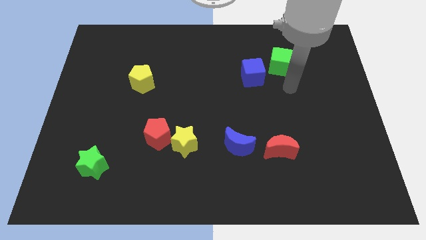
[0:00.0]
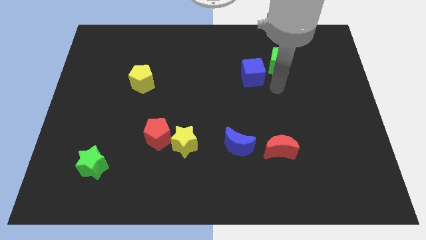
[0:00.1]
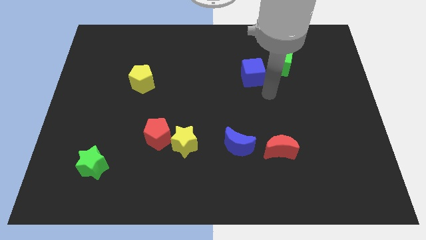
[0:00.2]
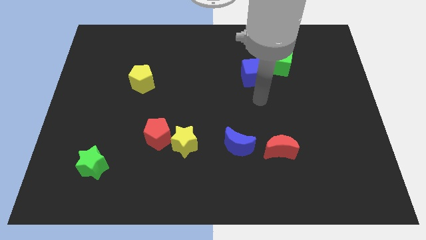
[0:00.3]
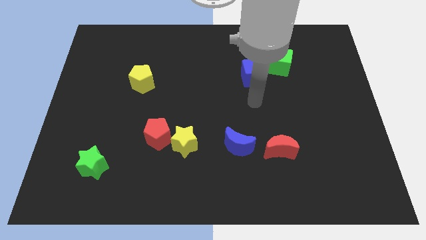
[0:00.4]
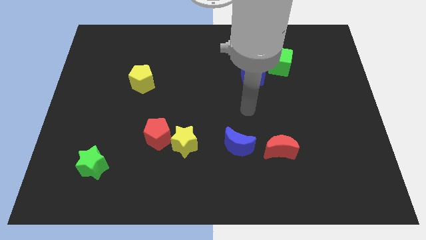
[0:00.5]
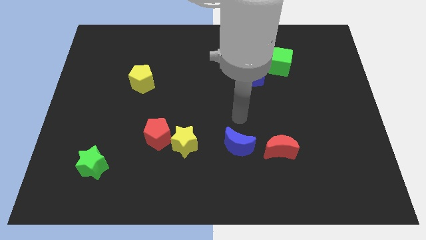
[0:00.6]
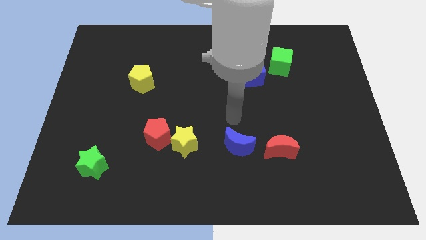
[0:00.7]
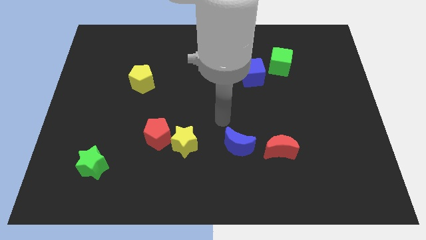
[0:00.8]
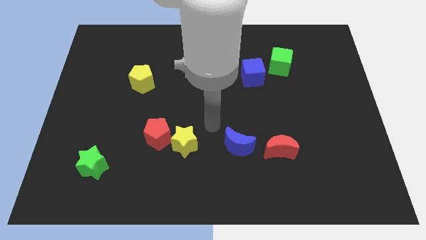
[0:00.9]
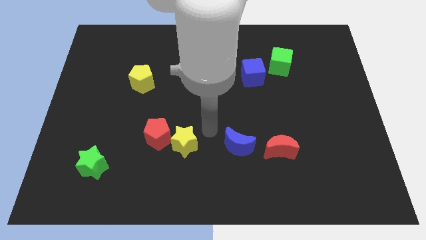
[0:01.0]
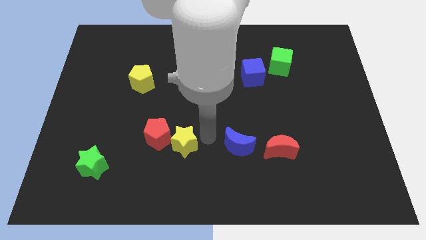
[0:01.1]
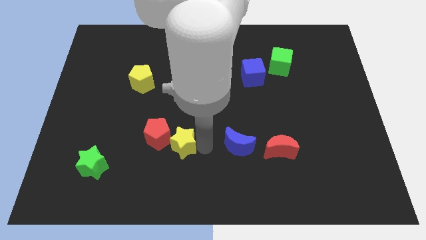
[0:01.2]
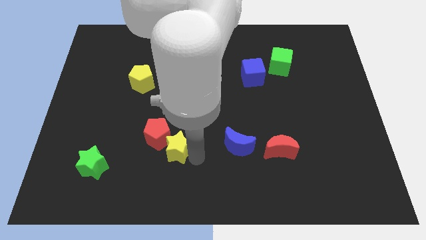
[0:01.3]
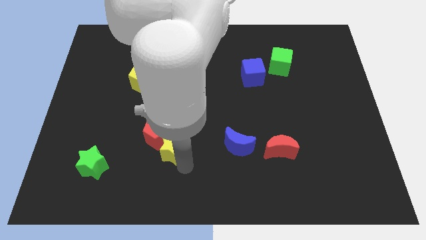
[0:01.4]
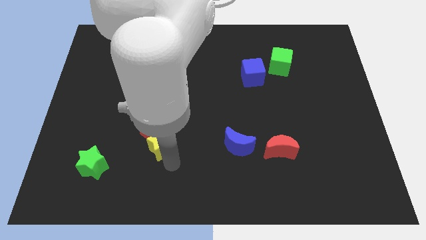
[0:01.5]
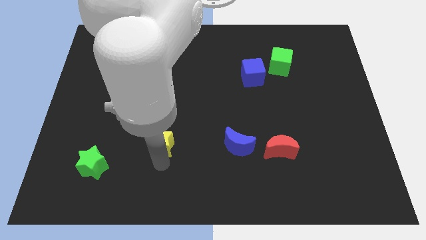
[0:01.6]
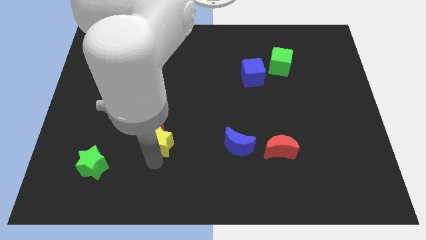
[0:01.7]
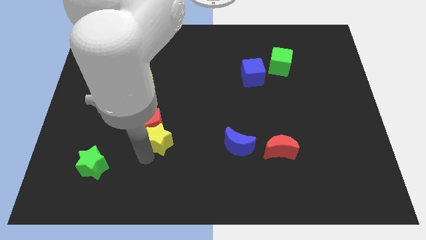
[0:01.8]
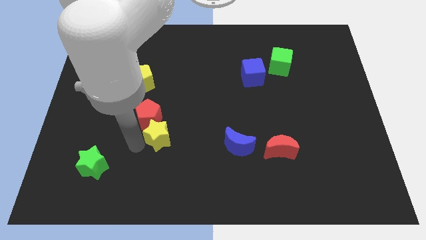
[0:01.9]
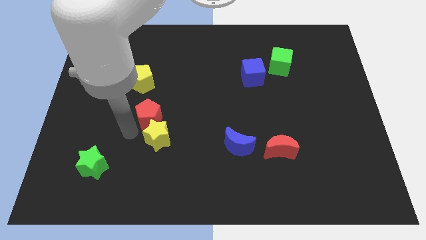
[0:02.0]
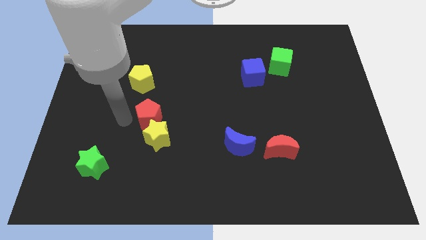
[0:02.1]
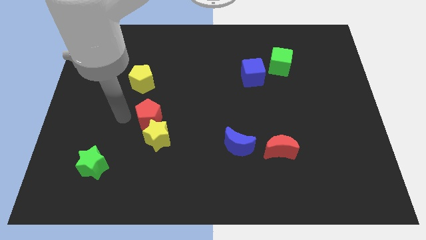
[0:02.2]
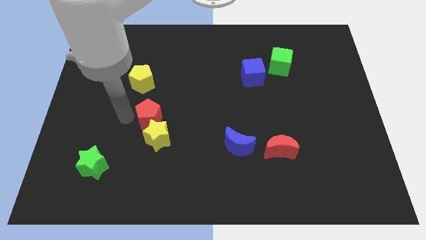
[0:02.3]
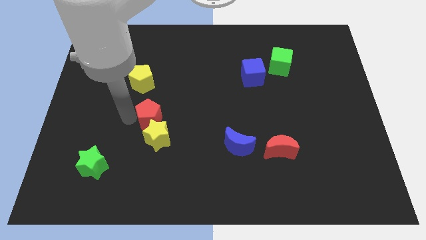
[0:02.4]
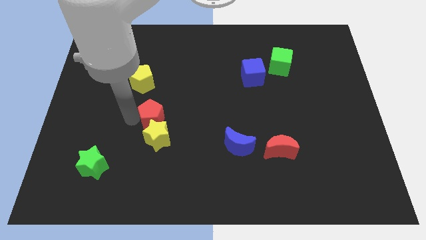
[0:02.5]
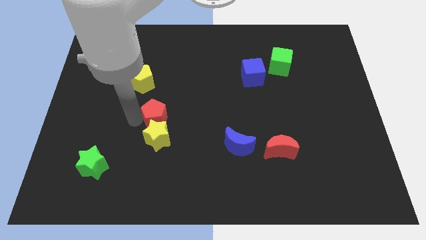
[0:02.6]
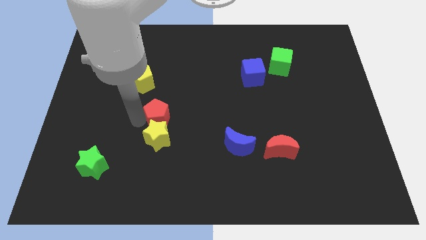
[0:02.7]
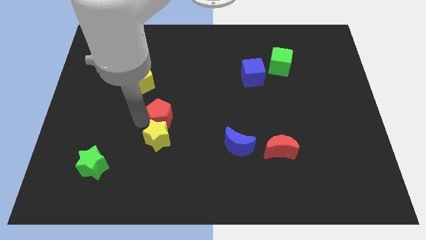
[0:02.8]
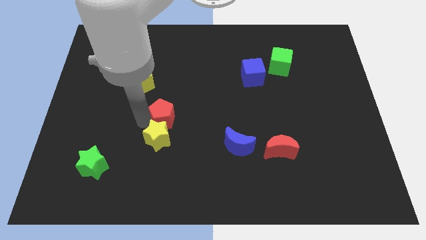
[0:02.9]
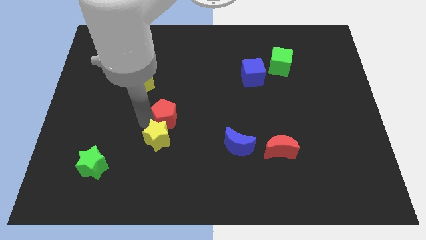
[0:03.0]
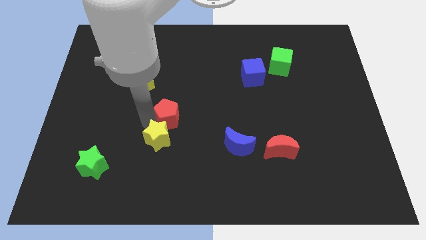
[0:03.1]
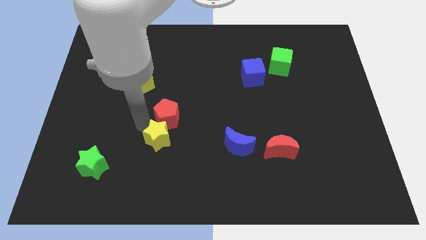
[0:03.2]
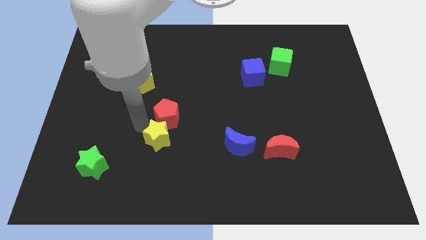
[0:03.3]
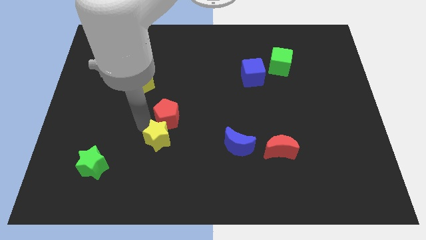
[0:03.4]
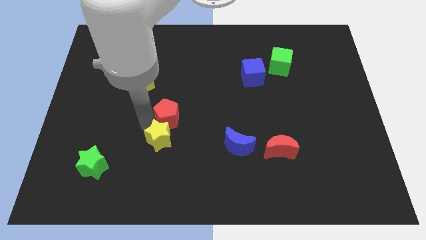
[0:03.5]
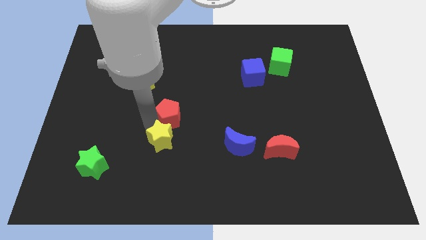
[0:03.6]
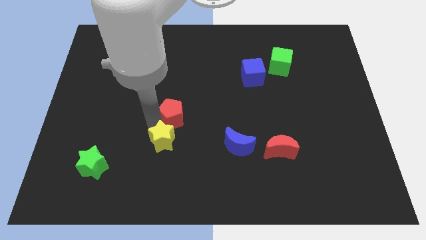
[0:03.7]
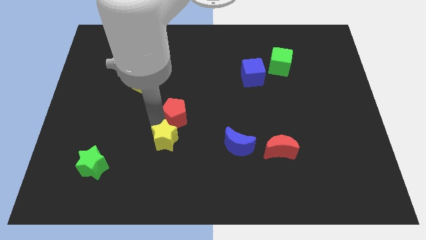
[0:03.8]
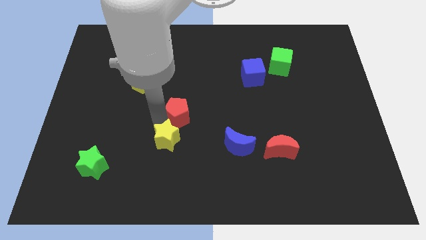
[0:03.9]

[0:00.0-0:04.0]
slide the red pentagon diagonally up and to the right a little

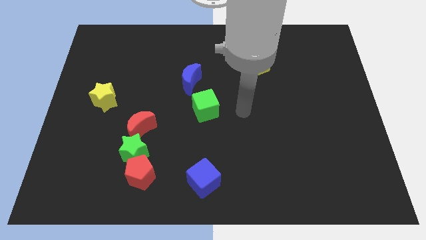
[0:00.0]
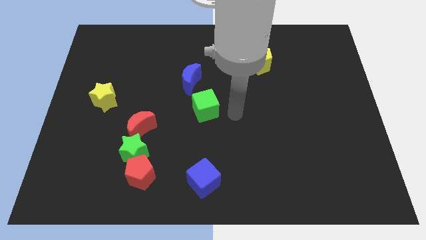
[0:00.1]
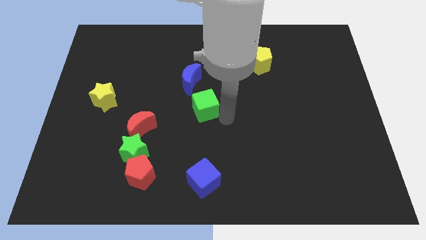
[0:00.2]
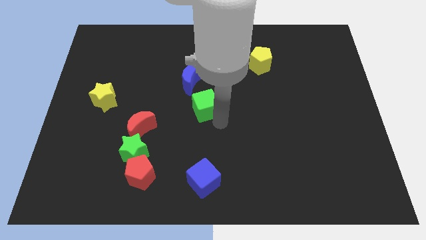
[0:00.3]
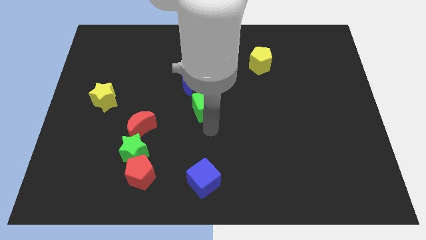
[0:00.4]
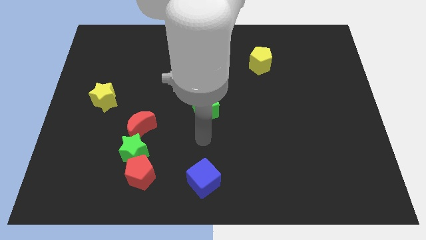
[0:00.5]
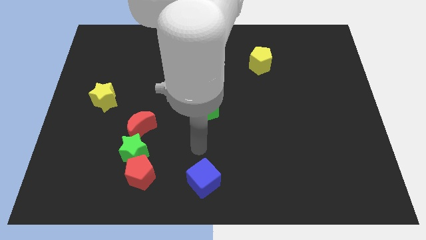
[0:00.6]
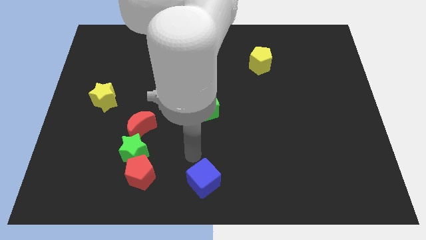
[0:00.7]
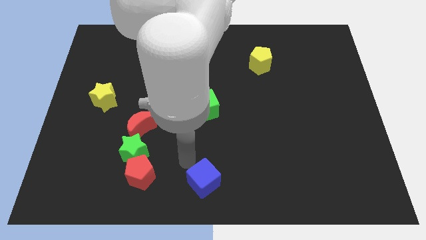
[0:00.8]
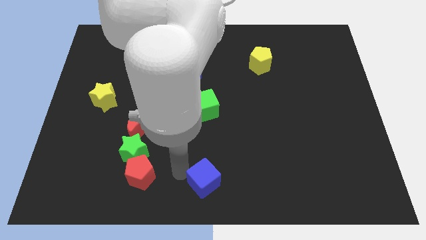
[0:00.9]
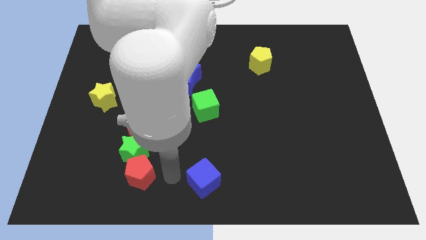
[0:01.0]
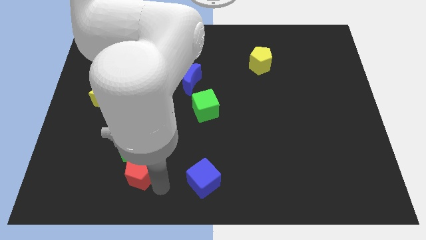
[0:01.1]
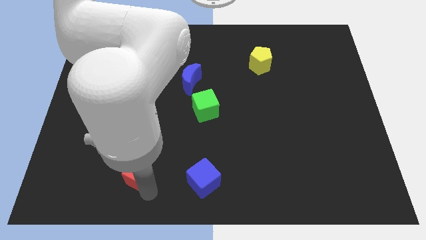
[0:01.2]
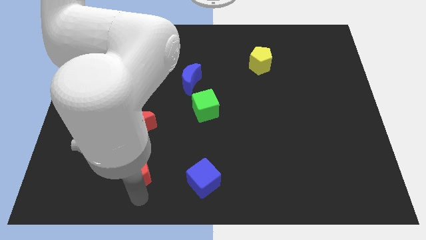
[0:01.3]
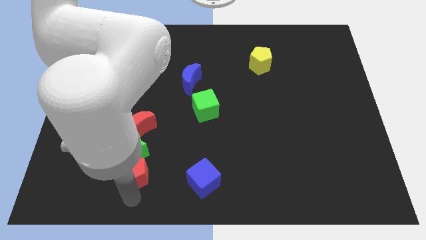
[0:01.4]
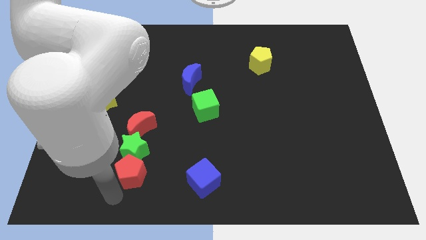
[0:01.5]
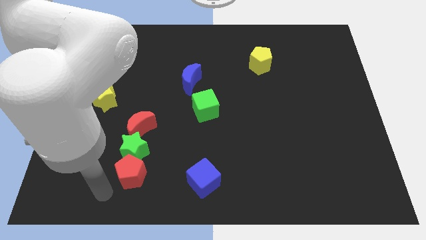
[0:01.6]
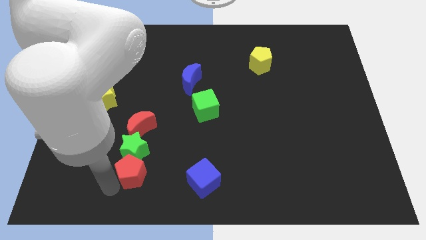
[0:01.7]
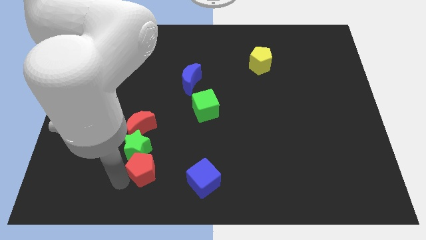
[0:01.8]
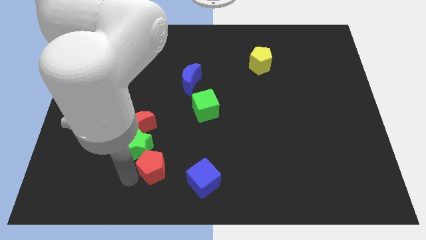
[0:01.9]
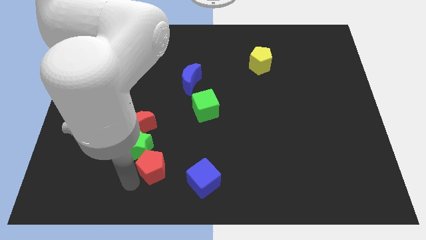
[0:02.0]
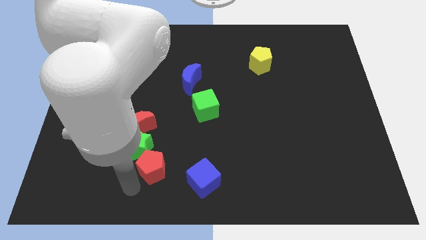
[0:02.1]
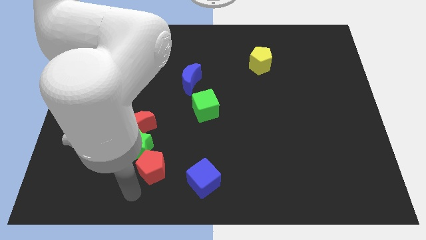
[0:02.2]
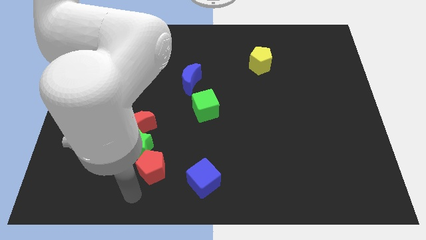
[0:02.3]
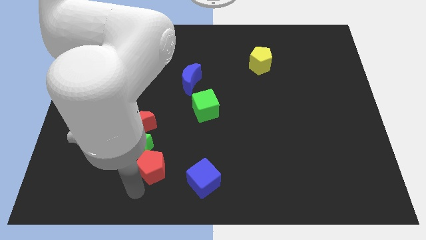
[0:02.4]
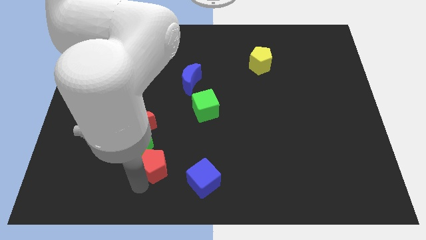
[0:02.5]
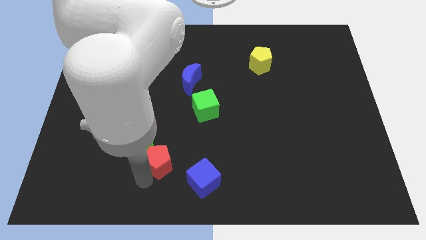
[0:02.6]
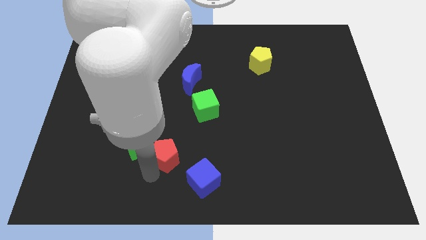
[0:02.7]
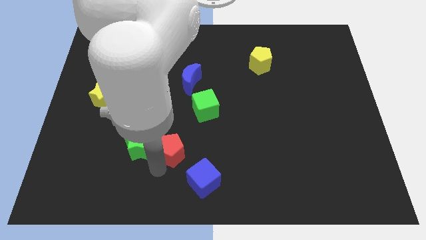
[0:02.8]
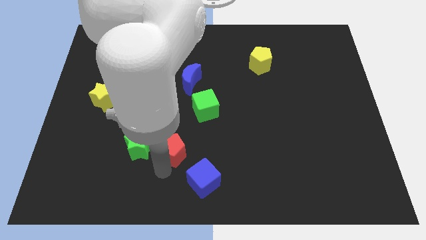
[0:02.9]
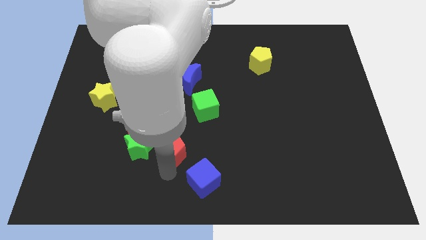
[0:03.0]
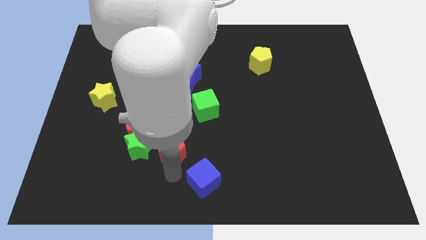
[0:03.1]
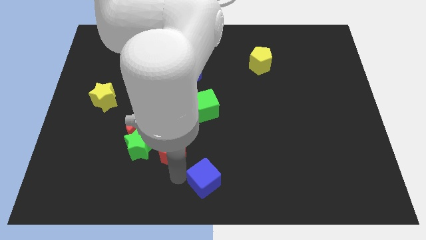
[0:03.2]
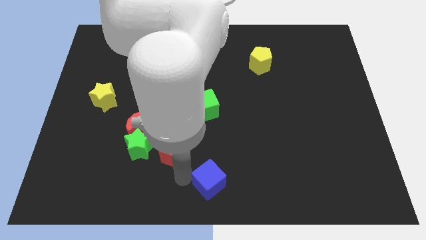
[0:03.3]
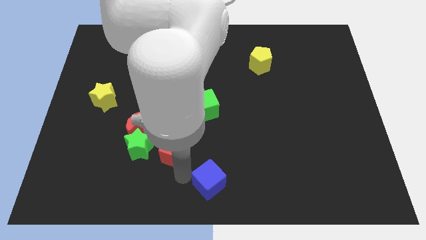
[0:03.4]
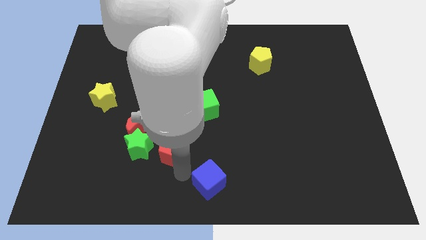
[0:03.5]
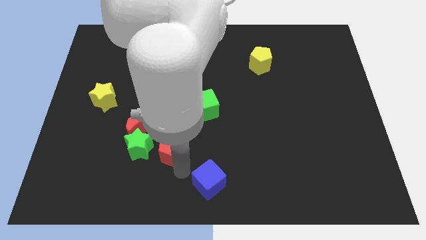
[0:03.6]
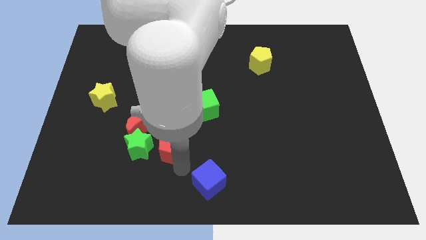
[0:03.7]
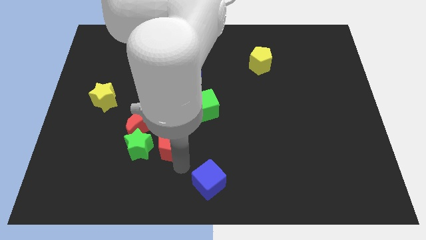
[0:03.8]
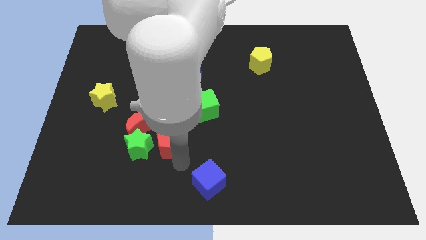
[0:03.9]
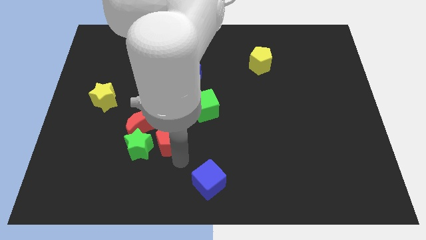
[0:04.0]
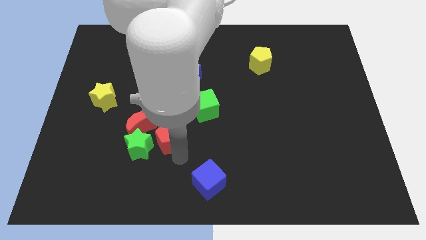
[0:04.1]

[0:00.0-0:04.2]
push the red pentagon a little upwards
